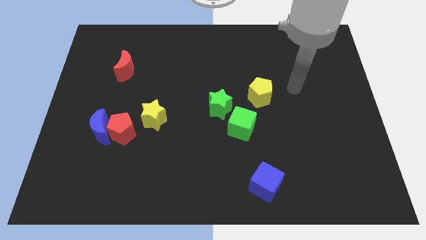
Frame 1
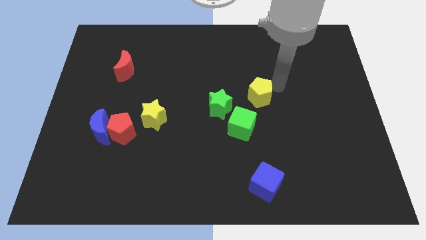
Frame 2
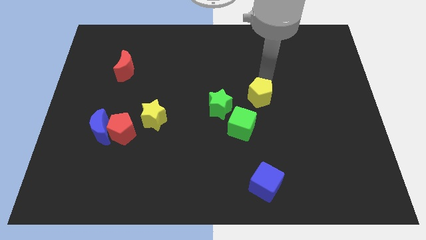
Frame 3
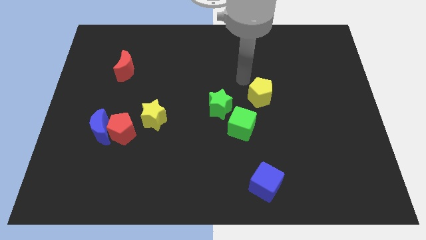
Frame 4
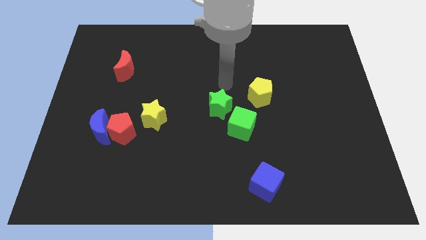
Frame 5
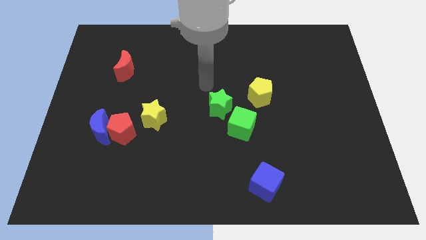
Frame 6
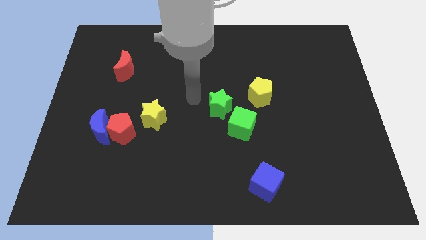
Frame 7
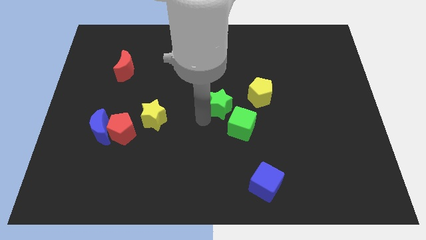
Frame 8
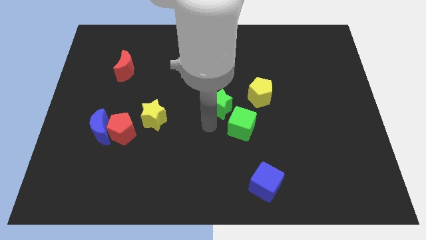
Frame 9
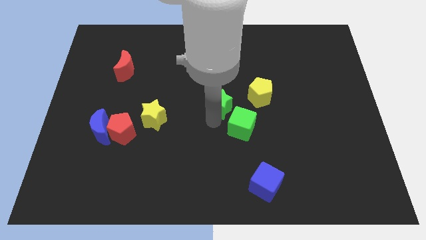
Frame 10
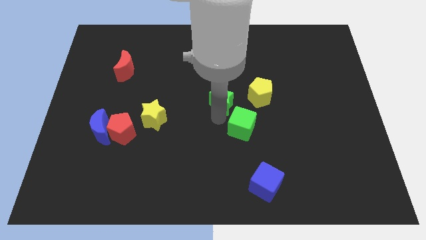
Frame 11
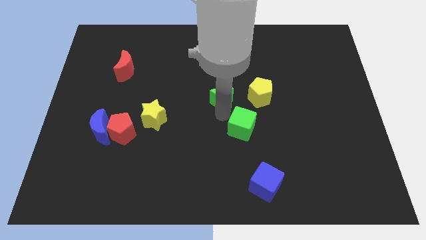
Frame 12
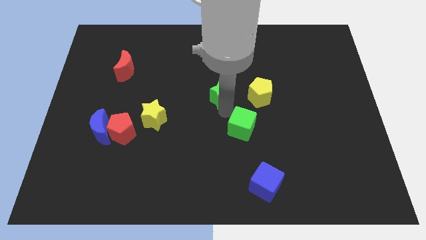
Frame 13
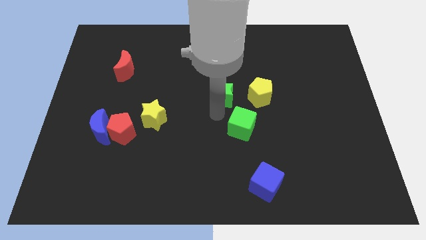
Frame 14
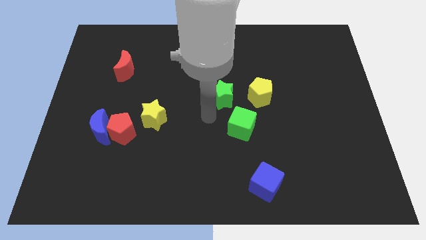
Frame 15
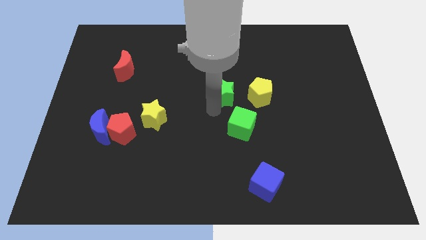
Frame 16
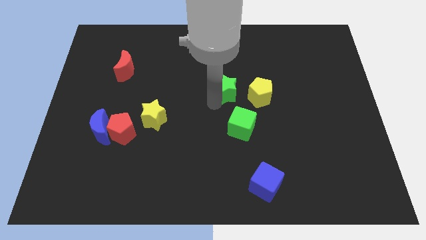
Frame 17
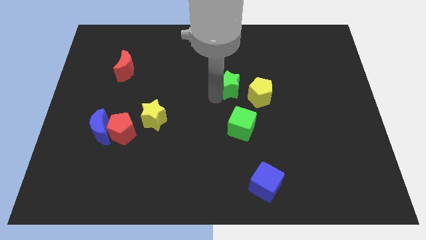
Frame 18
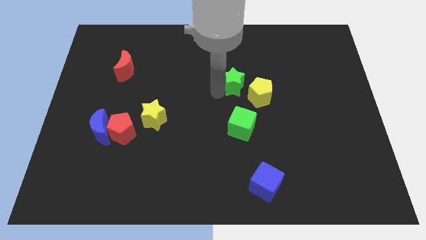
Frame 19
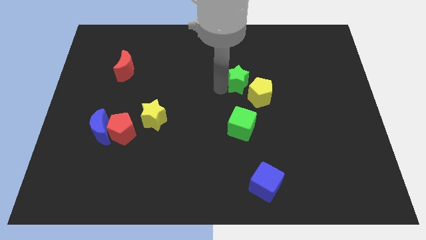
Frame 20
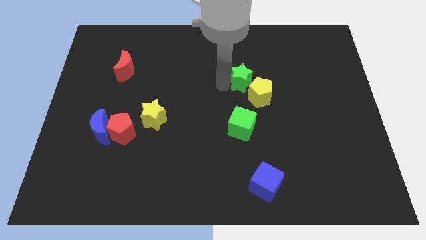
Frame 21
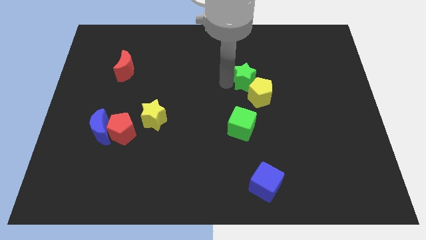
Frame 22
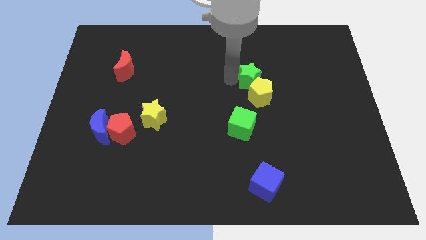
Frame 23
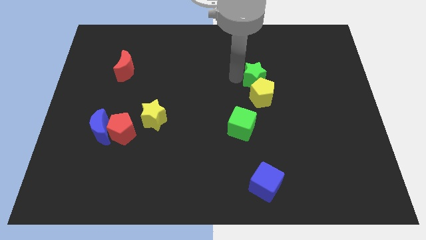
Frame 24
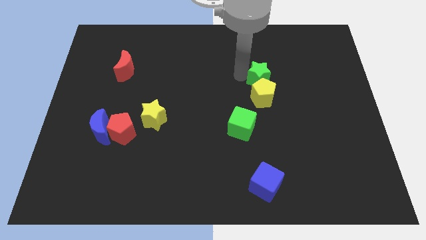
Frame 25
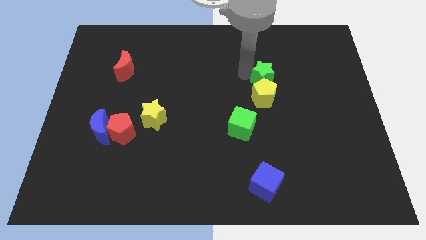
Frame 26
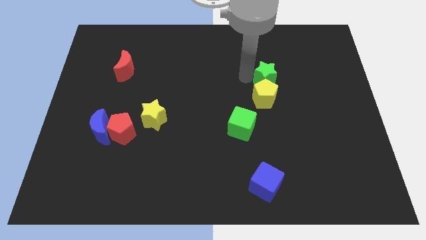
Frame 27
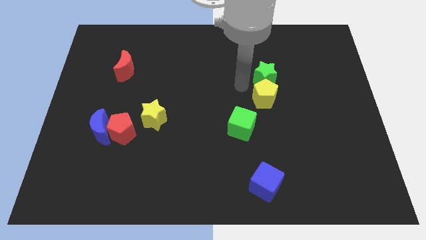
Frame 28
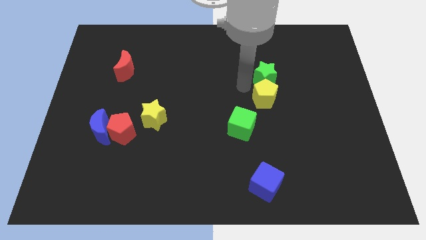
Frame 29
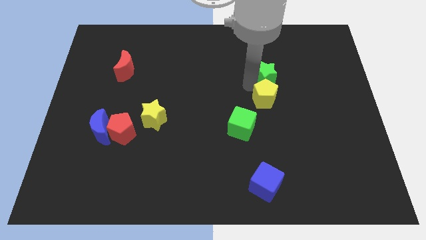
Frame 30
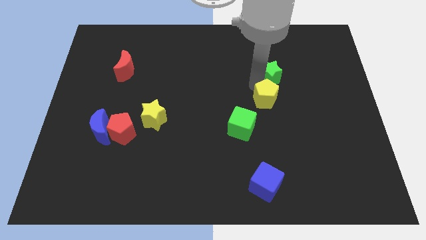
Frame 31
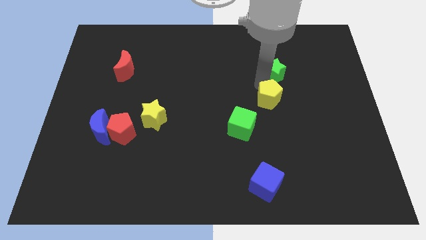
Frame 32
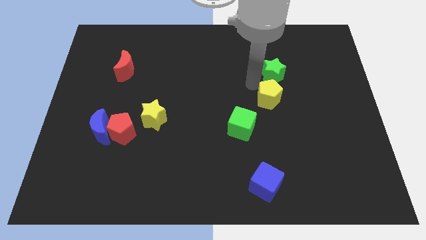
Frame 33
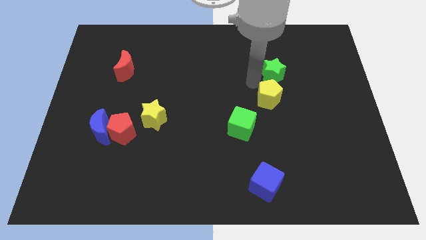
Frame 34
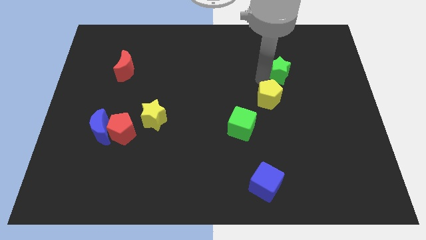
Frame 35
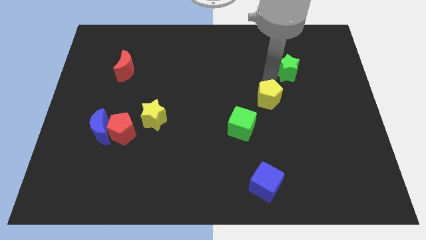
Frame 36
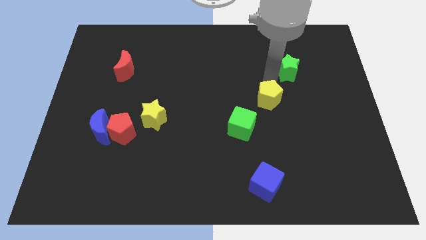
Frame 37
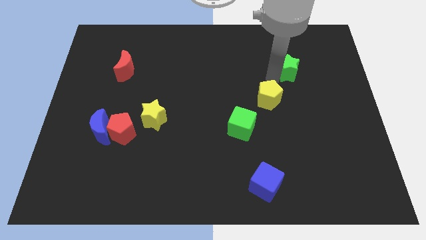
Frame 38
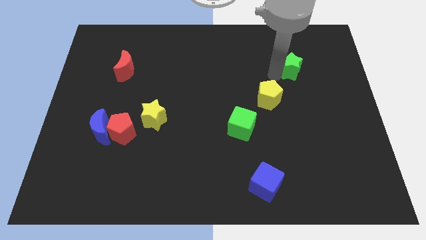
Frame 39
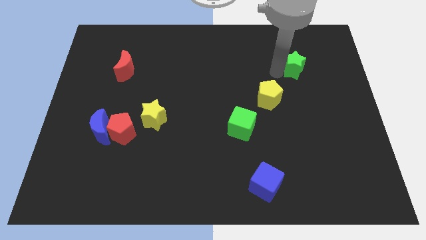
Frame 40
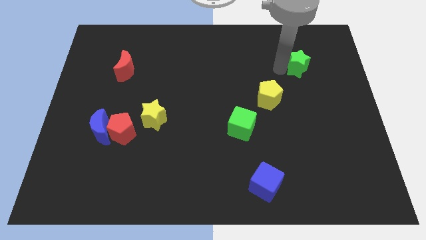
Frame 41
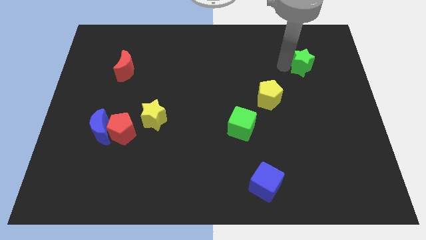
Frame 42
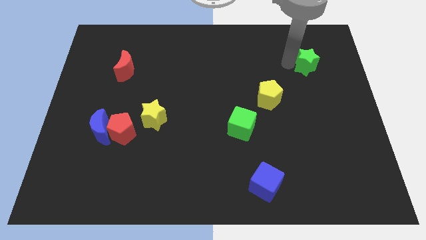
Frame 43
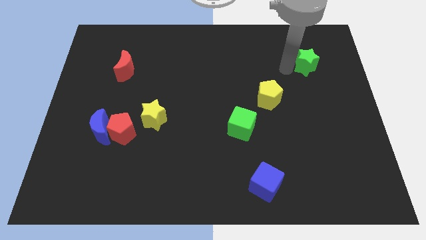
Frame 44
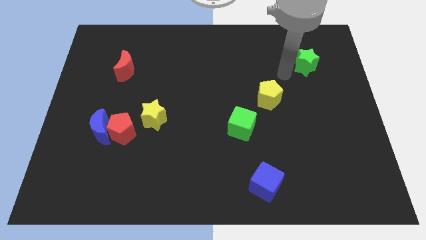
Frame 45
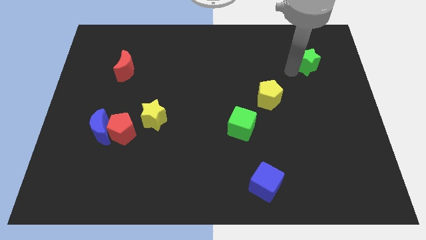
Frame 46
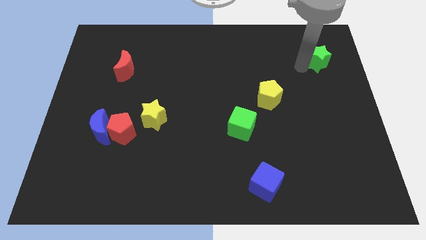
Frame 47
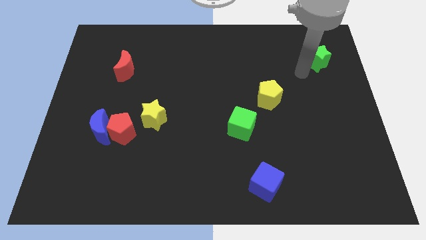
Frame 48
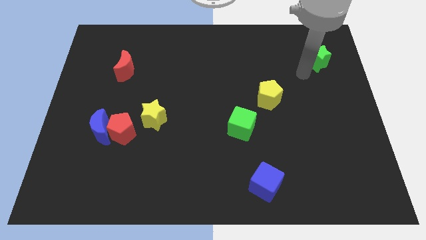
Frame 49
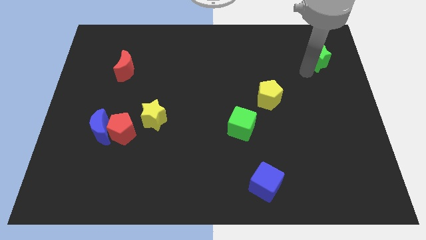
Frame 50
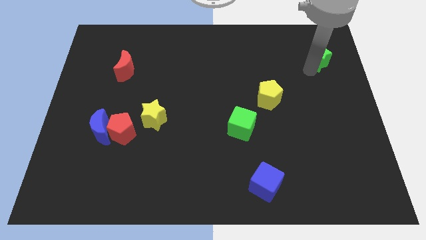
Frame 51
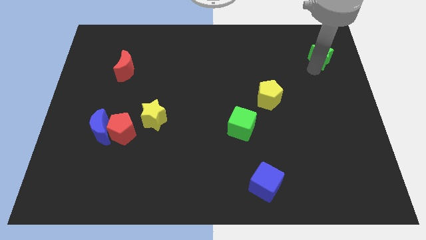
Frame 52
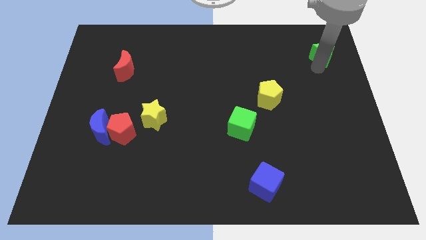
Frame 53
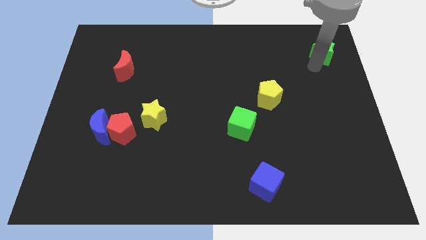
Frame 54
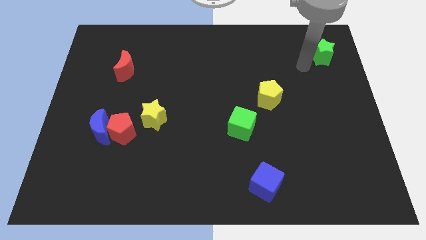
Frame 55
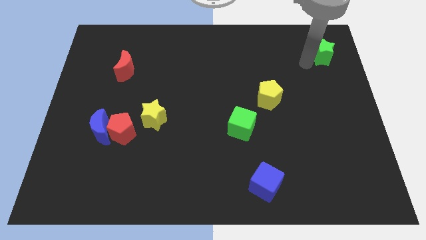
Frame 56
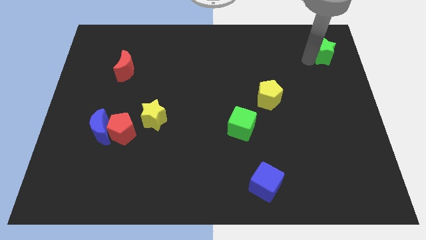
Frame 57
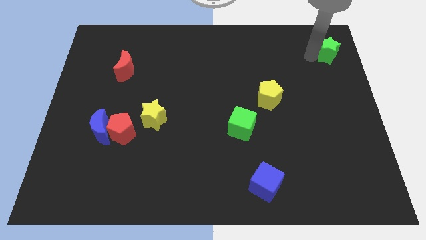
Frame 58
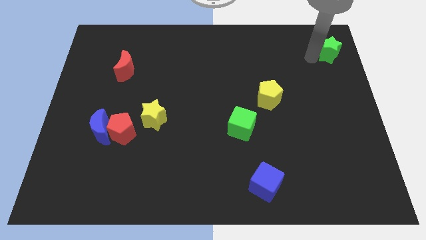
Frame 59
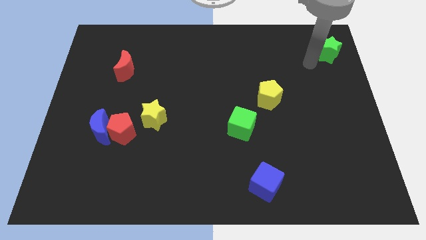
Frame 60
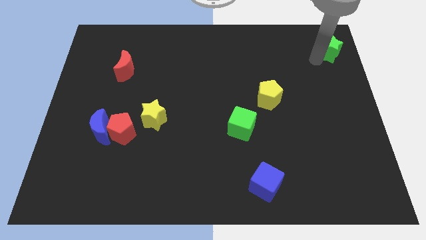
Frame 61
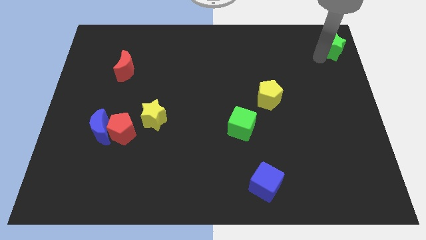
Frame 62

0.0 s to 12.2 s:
put the green star to the upper right corner

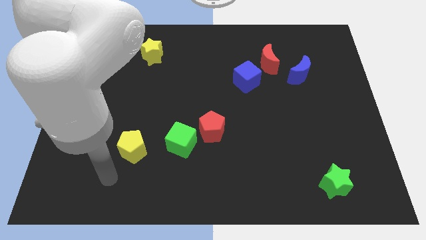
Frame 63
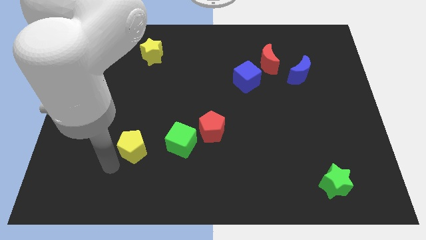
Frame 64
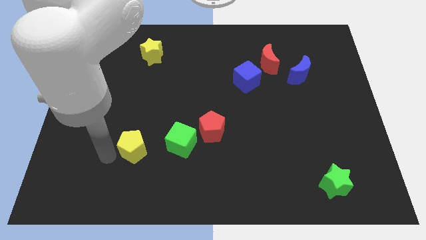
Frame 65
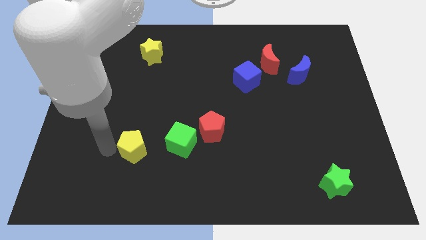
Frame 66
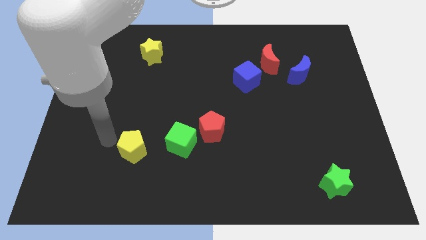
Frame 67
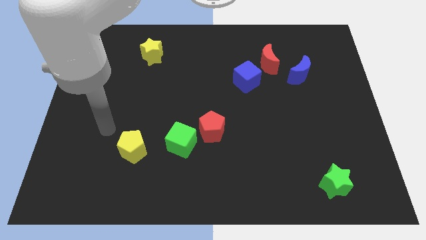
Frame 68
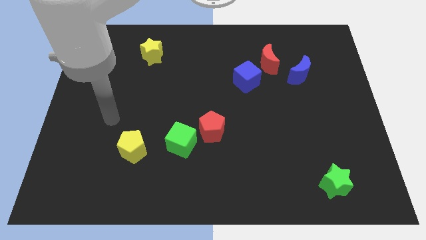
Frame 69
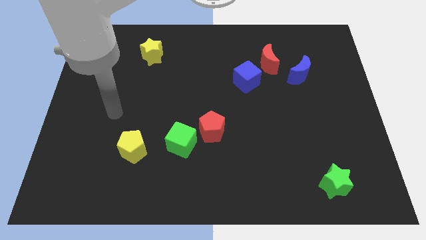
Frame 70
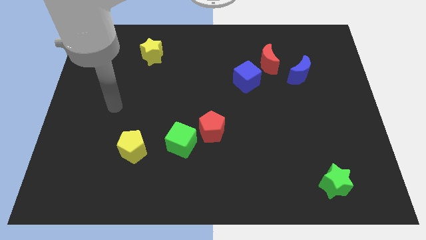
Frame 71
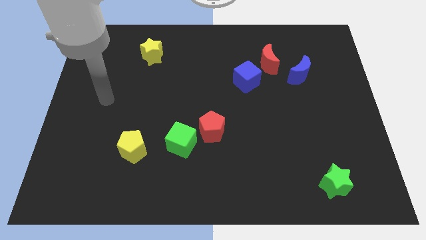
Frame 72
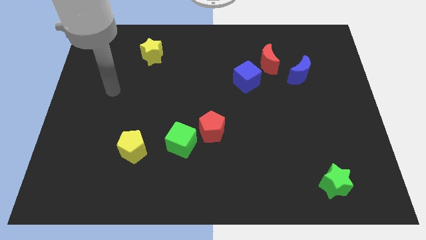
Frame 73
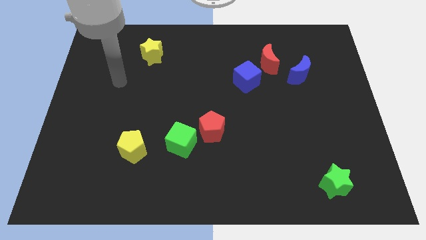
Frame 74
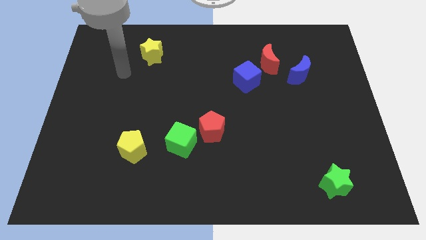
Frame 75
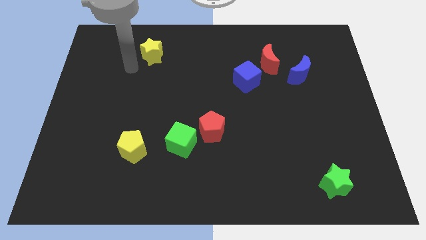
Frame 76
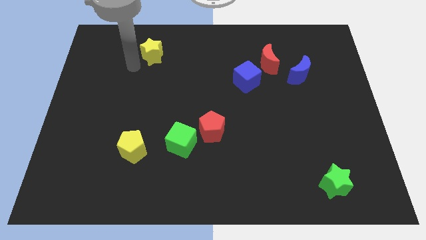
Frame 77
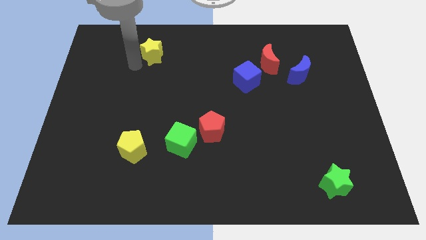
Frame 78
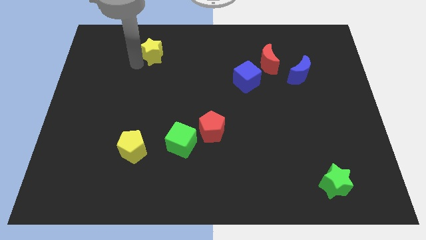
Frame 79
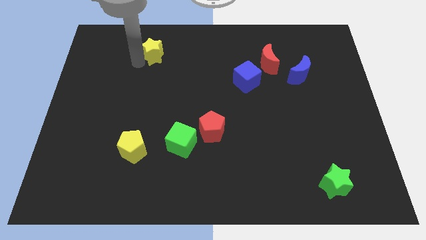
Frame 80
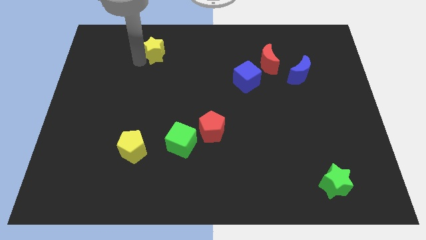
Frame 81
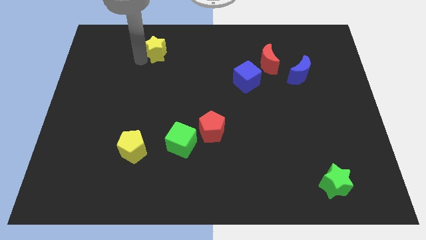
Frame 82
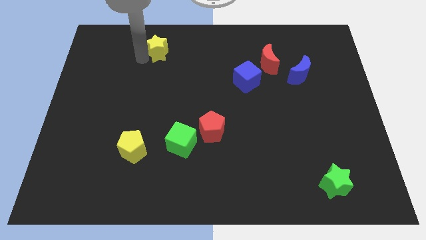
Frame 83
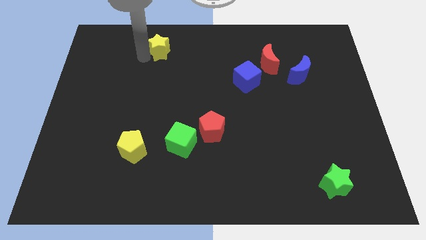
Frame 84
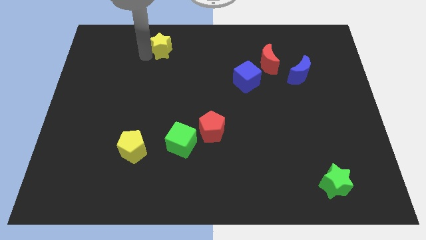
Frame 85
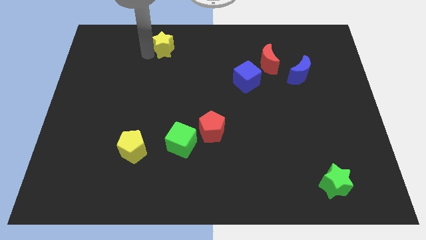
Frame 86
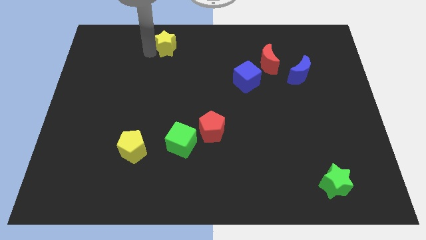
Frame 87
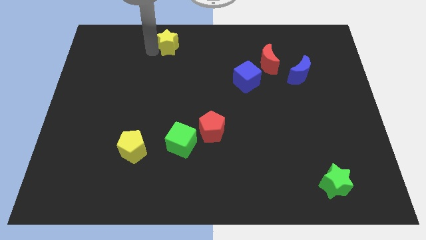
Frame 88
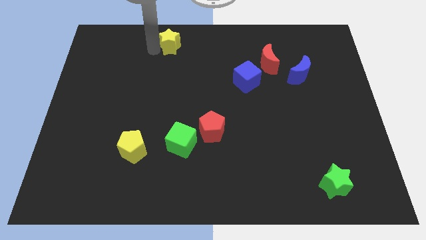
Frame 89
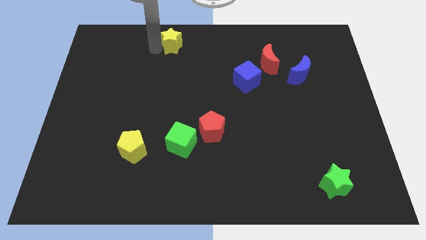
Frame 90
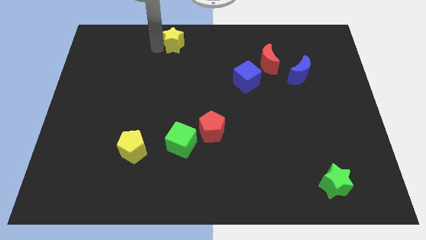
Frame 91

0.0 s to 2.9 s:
move the yellow star to the top
